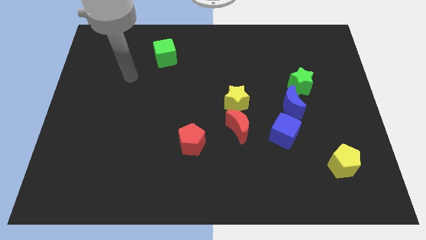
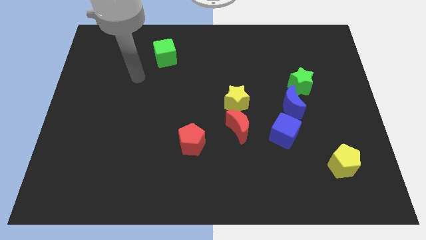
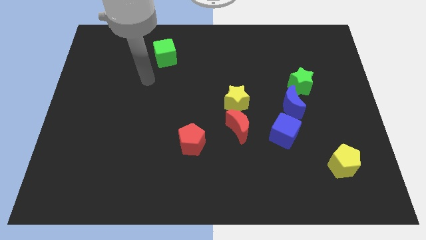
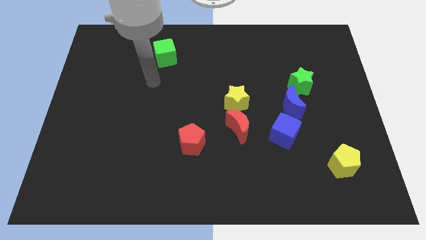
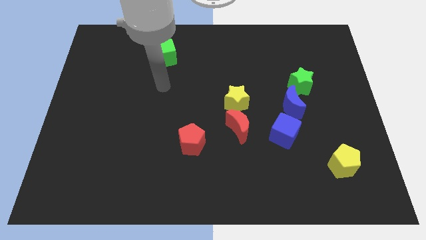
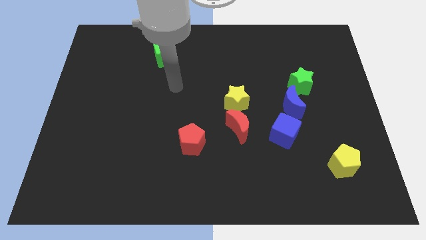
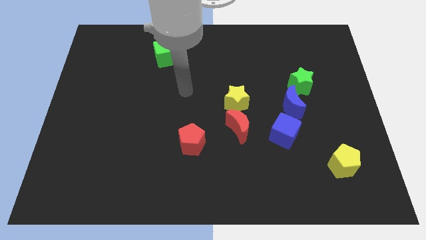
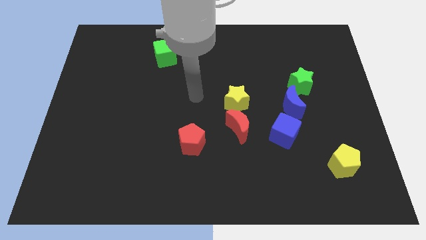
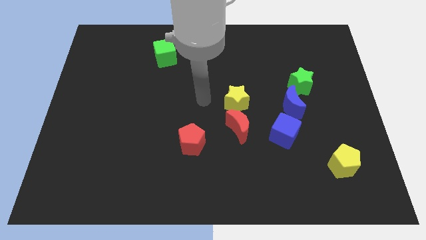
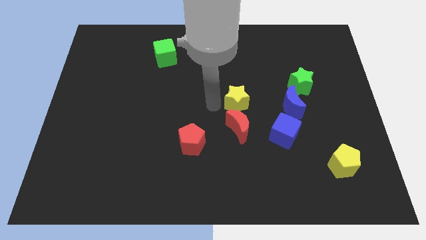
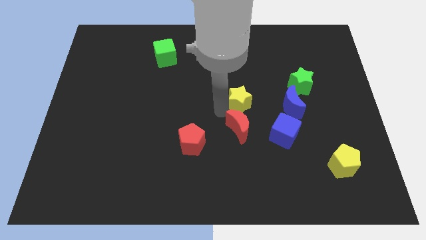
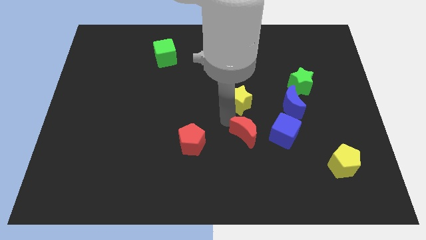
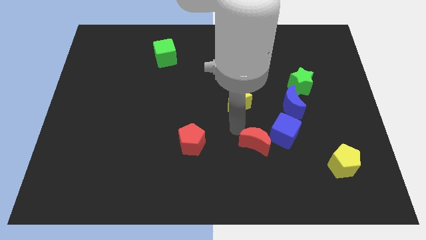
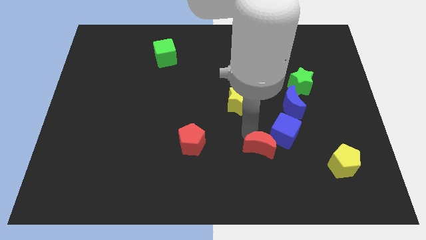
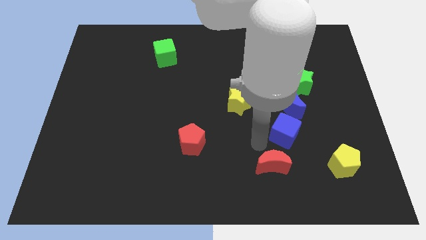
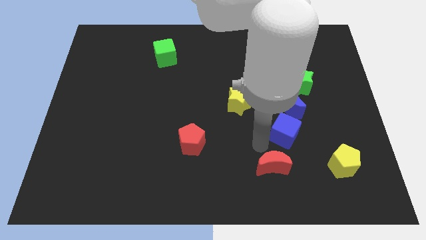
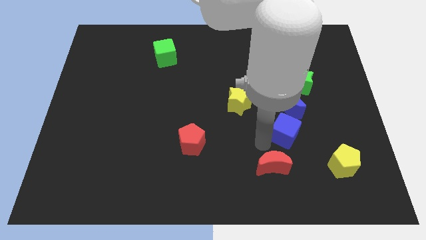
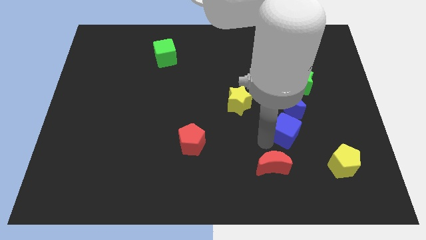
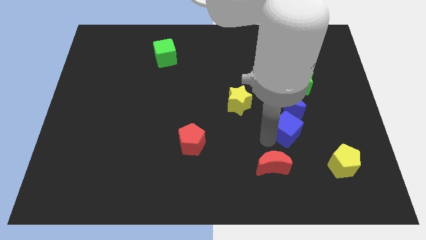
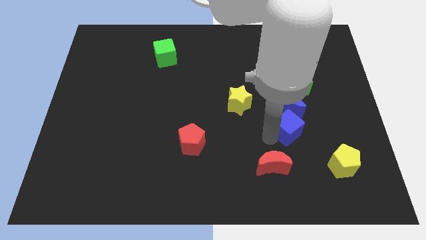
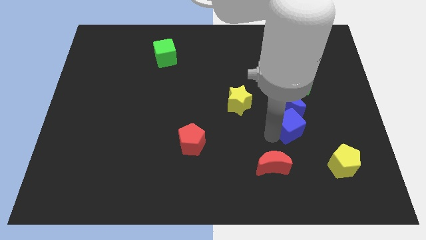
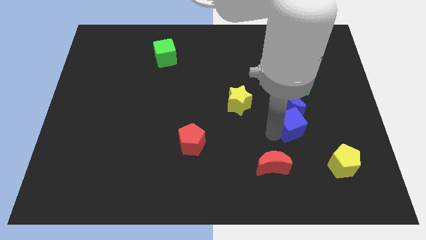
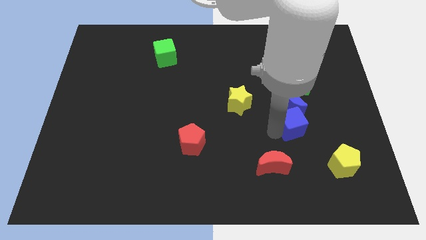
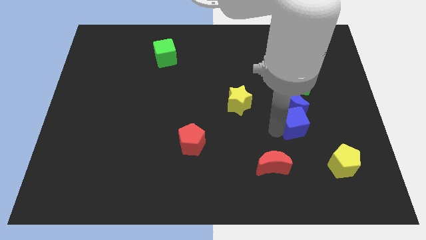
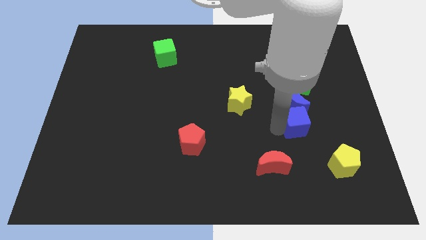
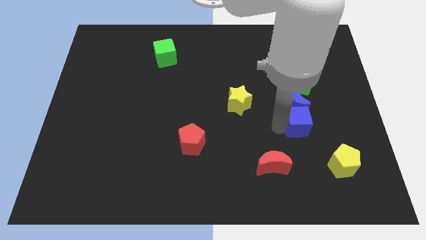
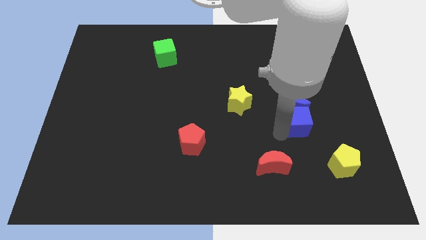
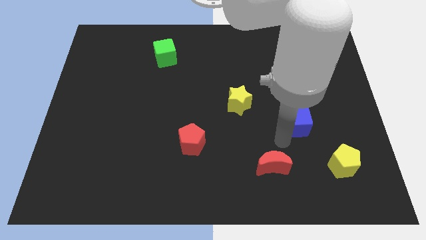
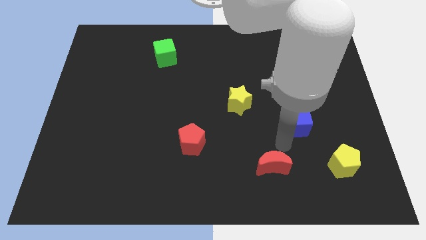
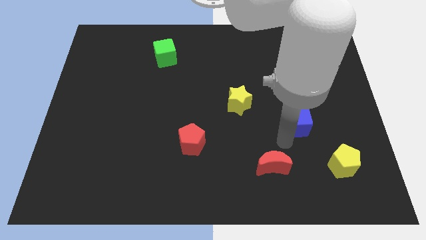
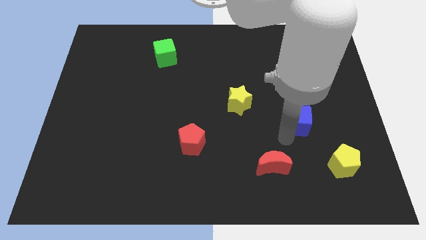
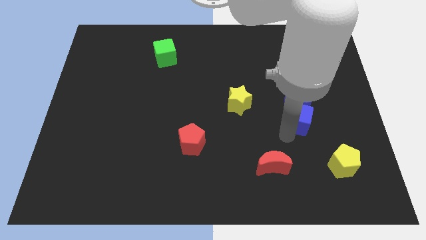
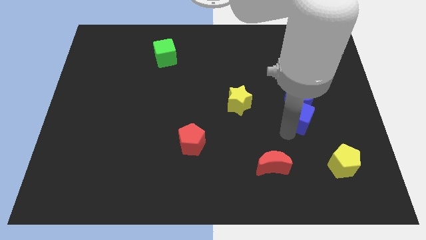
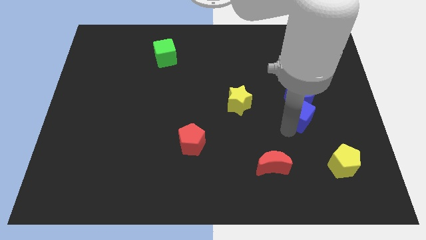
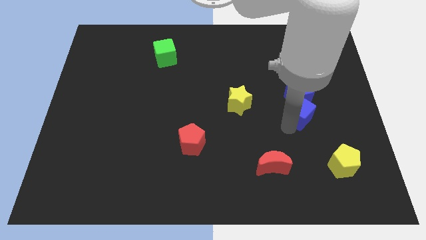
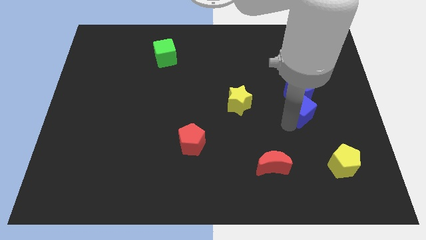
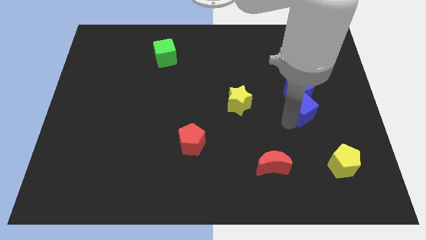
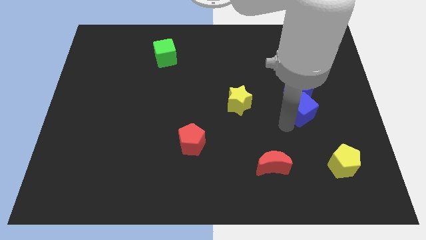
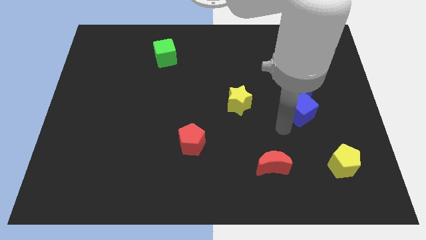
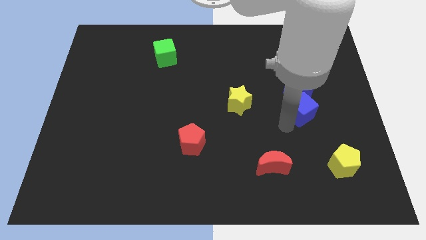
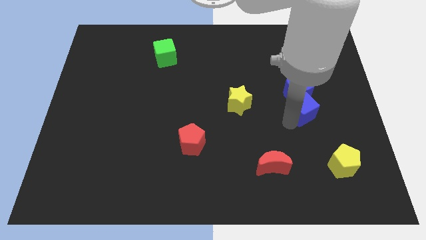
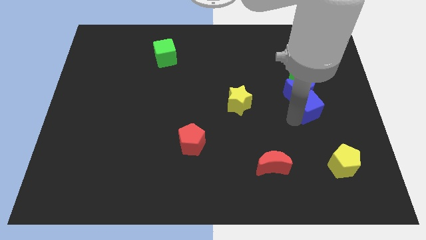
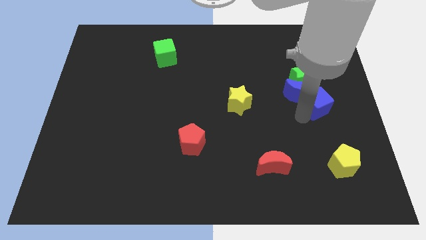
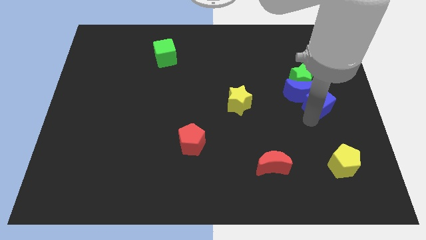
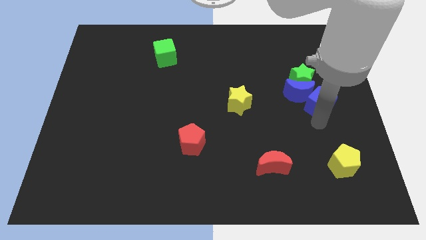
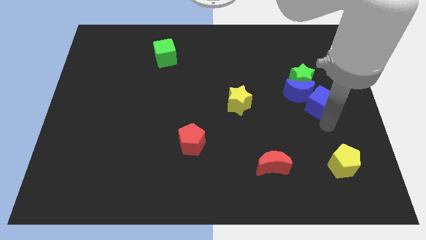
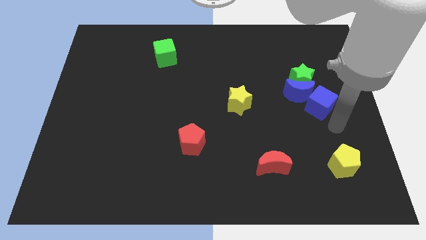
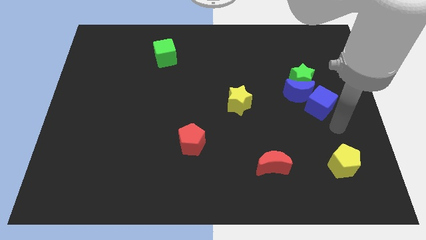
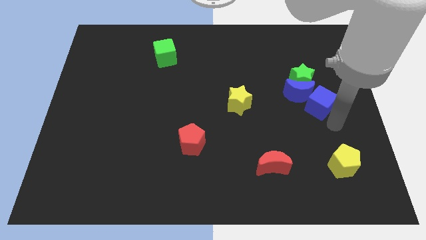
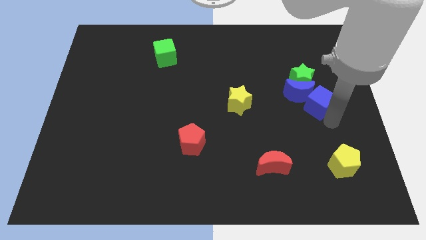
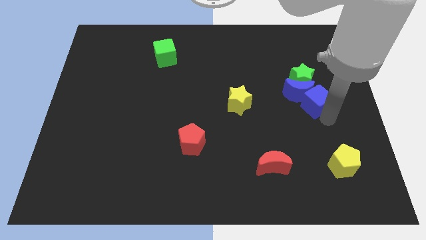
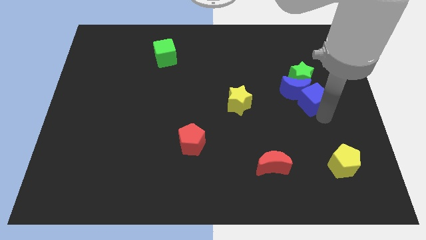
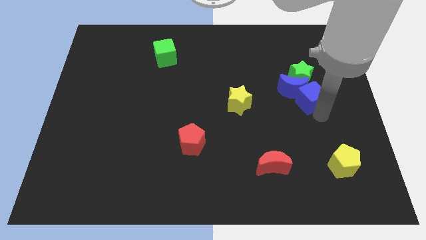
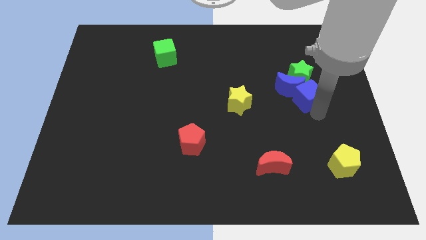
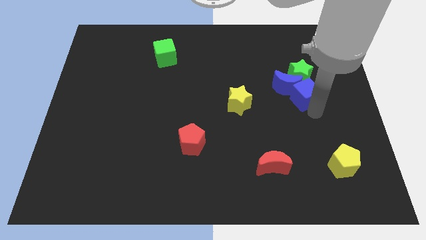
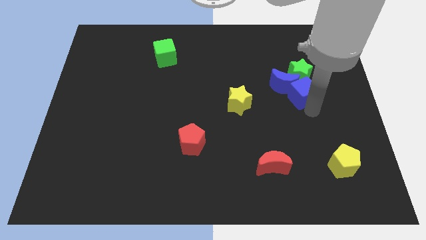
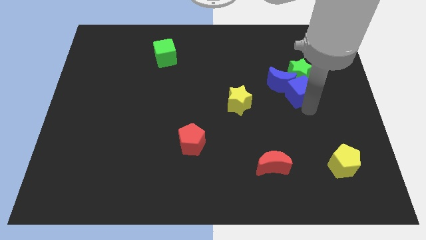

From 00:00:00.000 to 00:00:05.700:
move the blue cube next to the green star

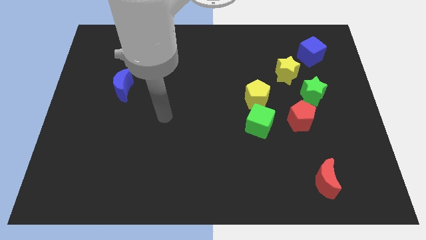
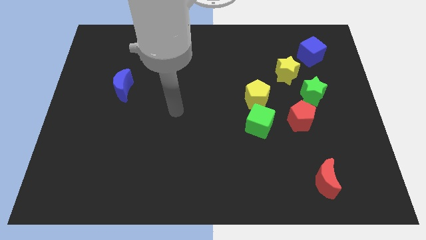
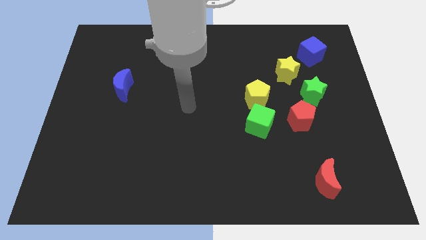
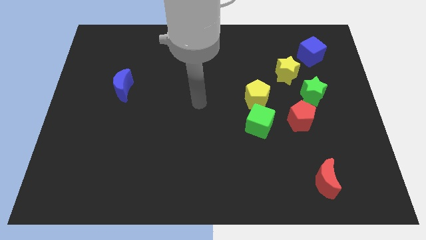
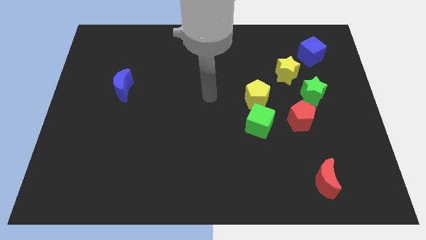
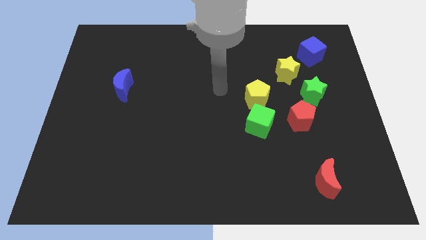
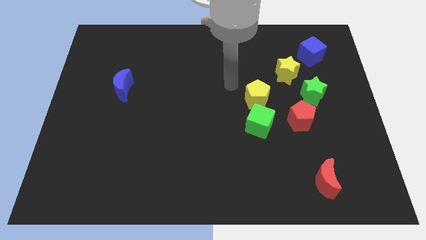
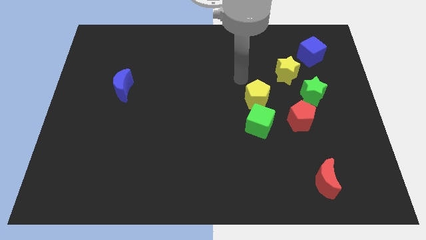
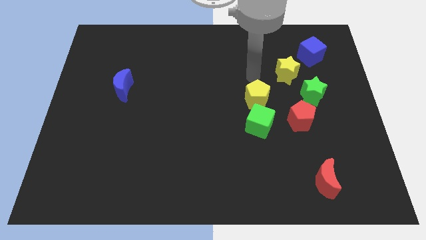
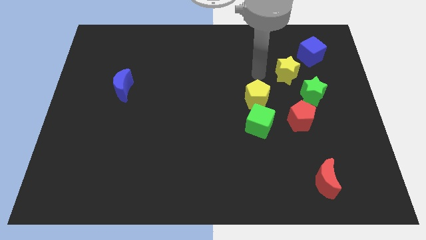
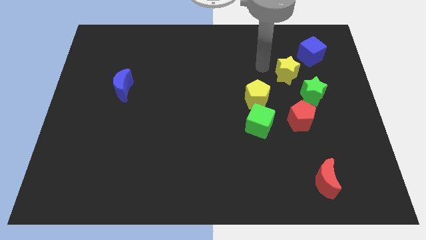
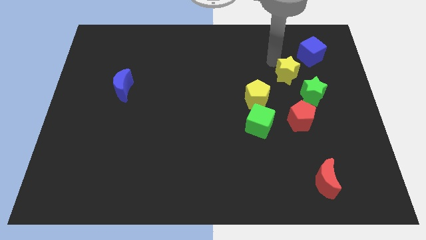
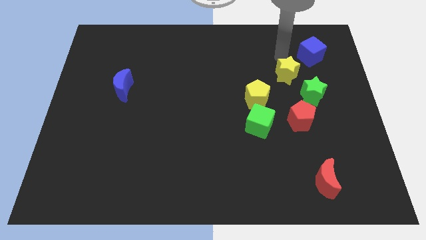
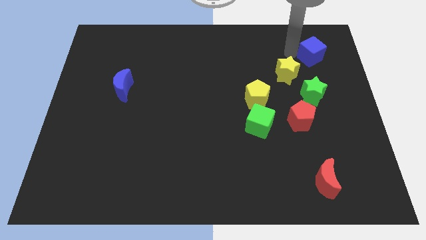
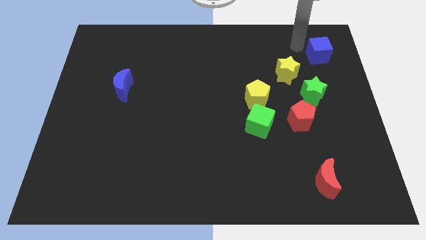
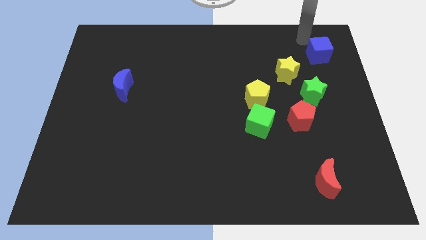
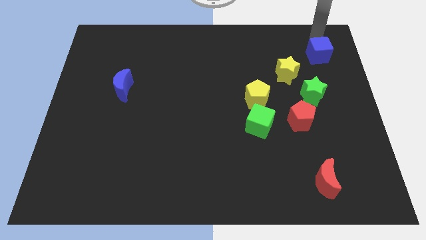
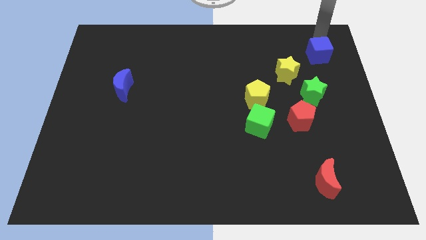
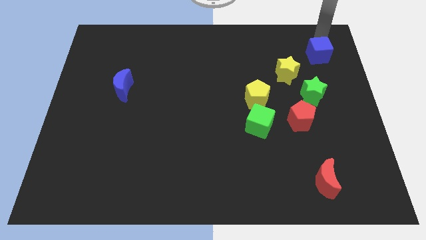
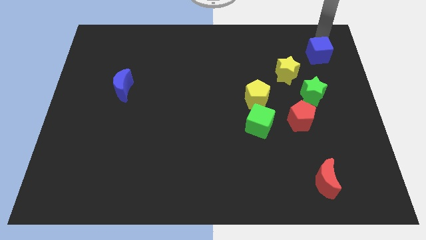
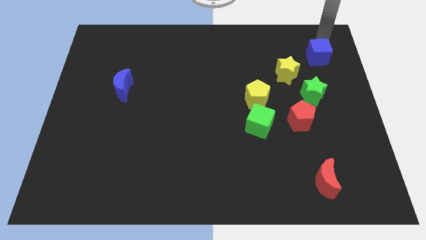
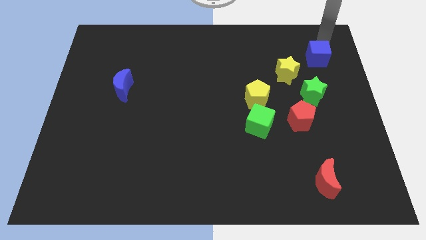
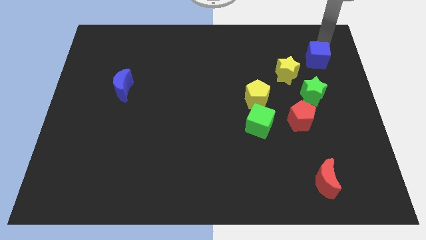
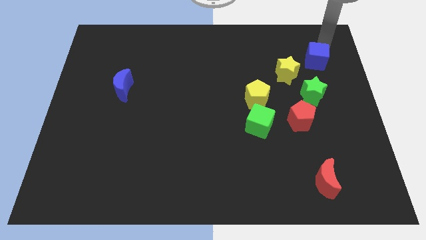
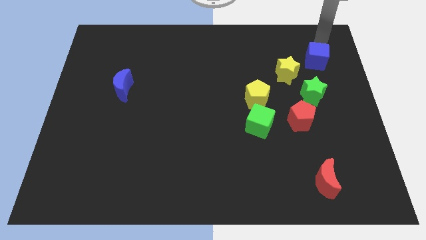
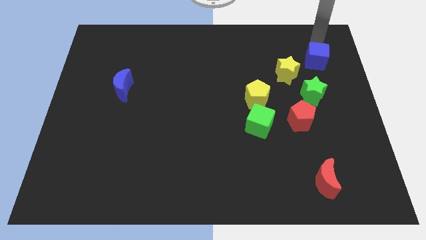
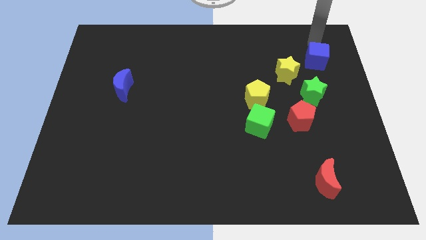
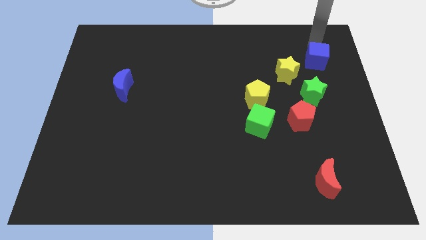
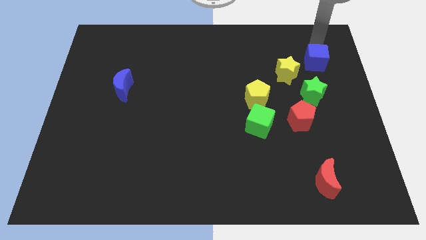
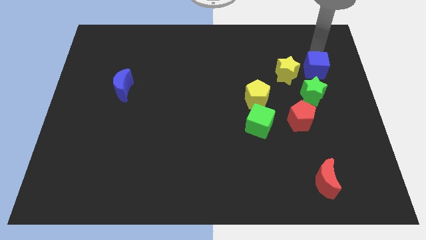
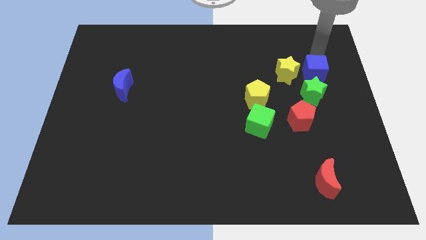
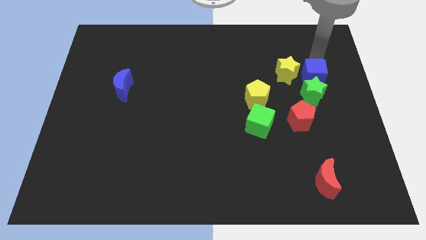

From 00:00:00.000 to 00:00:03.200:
push the blue cube to the green star
